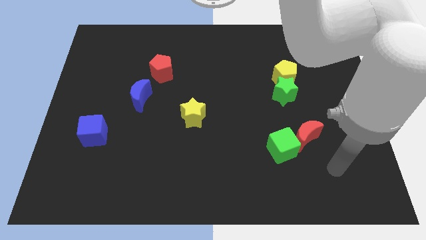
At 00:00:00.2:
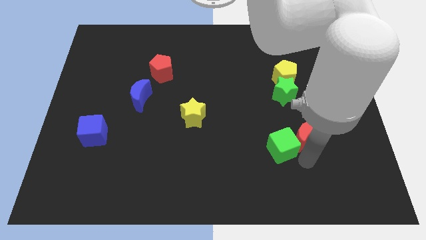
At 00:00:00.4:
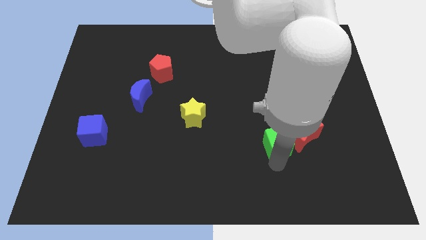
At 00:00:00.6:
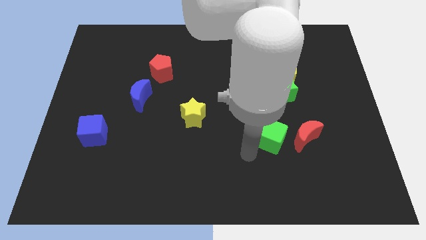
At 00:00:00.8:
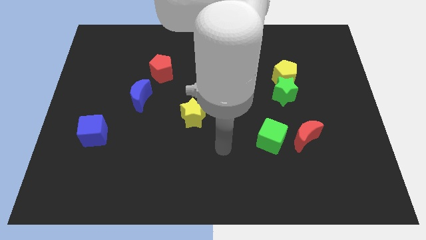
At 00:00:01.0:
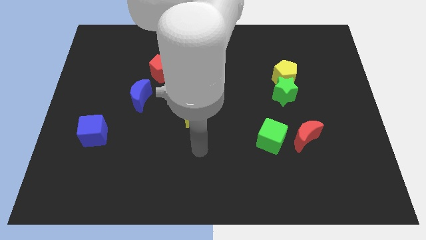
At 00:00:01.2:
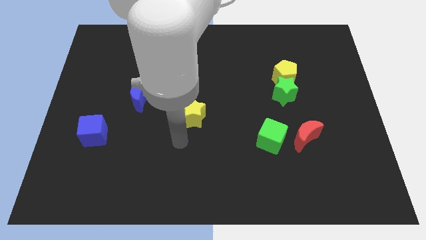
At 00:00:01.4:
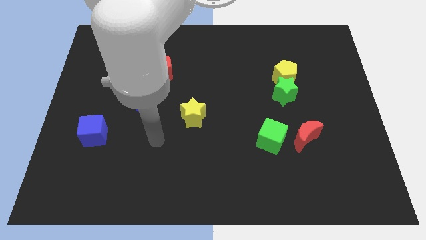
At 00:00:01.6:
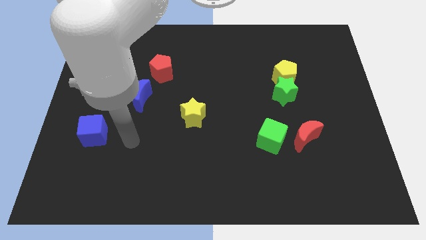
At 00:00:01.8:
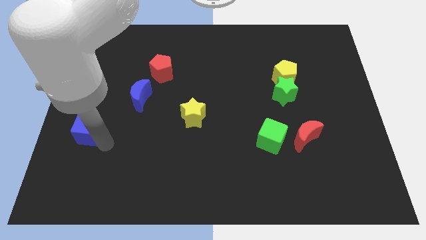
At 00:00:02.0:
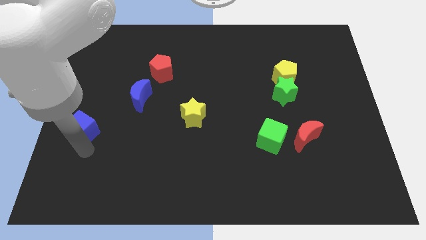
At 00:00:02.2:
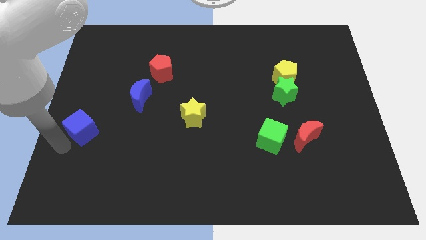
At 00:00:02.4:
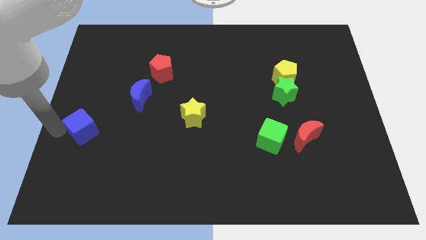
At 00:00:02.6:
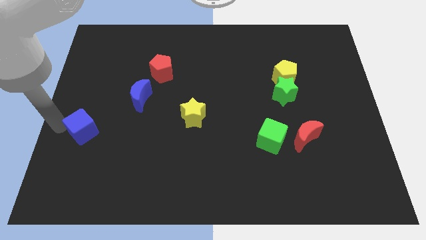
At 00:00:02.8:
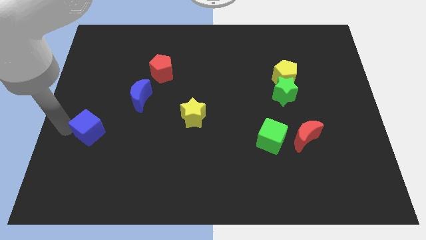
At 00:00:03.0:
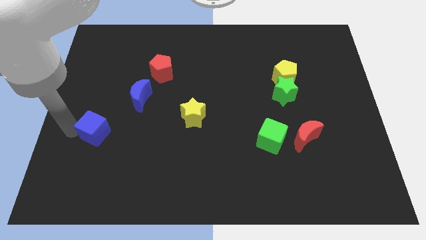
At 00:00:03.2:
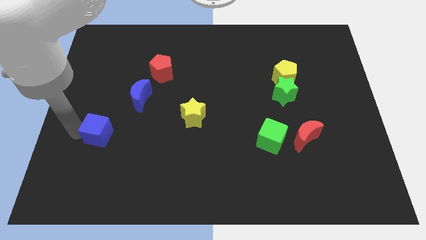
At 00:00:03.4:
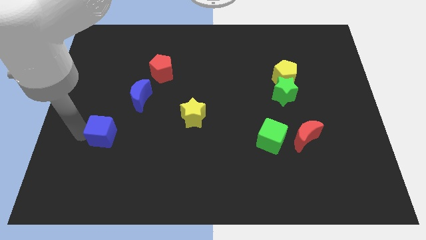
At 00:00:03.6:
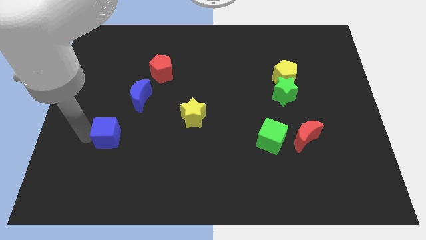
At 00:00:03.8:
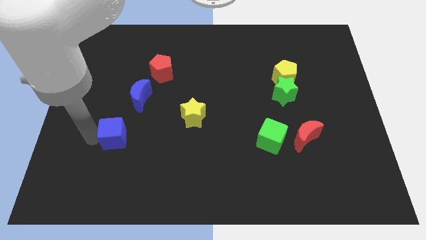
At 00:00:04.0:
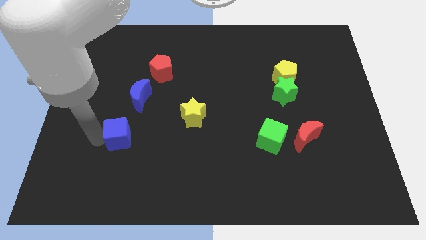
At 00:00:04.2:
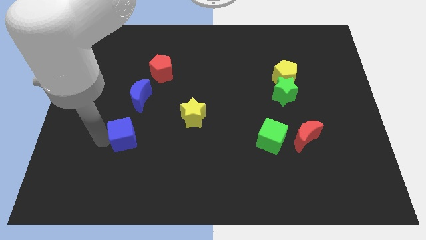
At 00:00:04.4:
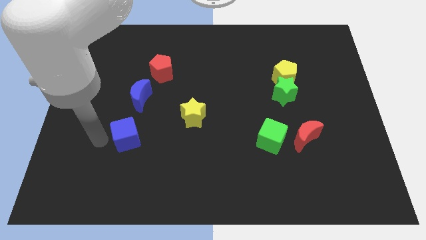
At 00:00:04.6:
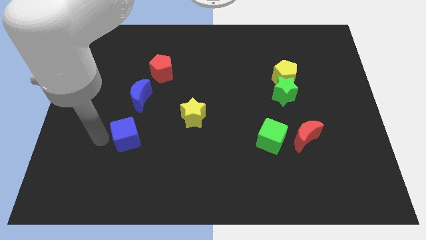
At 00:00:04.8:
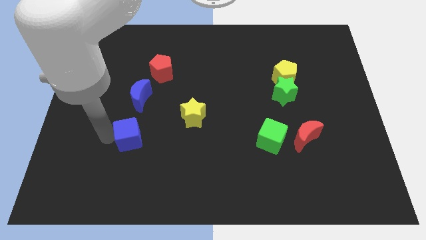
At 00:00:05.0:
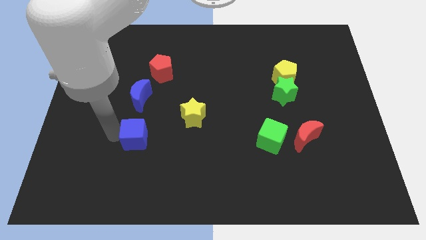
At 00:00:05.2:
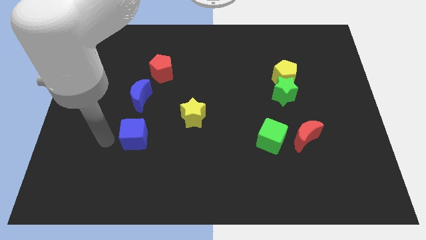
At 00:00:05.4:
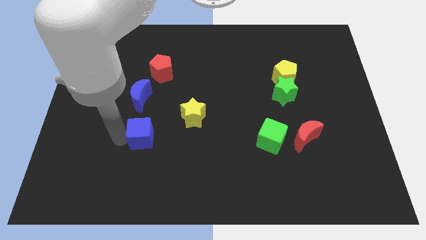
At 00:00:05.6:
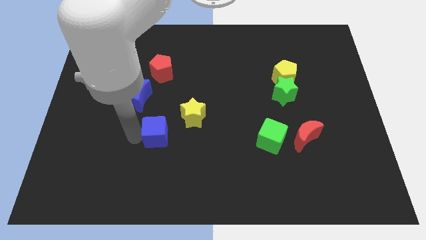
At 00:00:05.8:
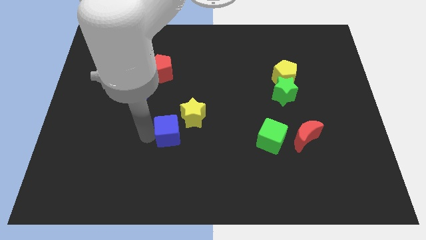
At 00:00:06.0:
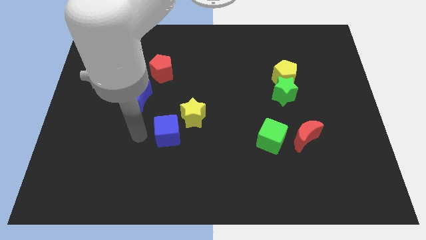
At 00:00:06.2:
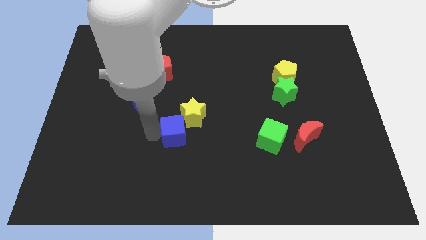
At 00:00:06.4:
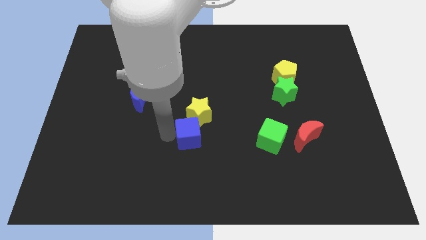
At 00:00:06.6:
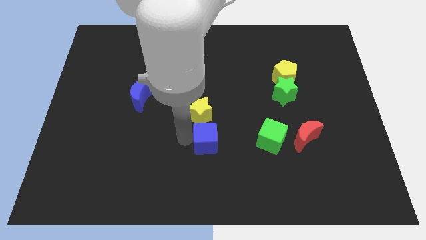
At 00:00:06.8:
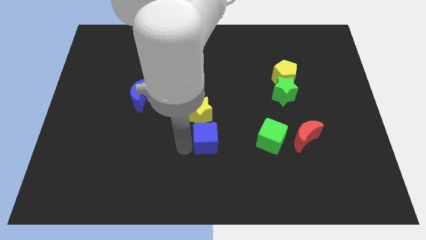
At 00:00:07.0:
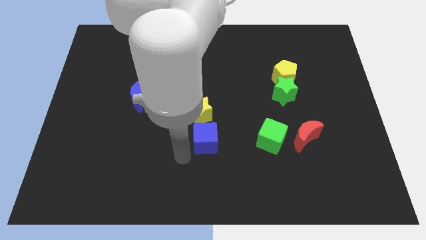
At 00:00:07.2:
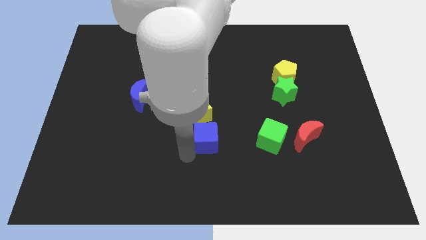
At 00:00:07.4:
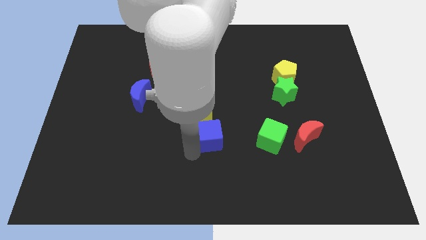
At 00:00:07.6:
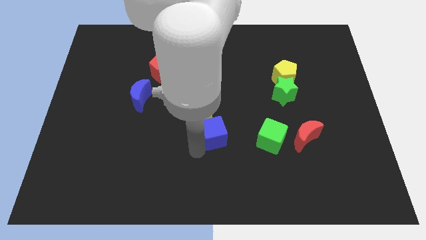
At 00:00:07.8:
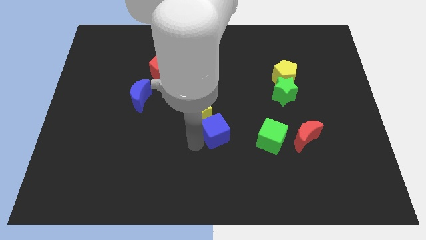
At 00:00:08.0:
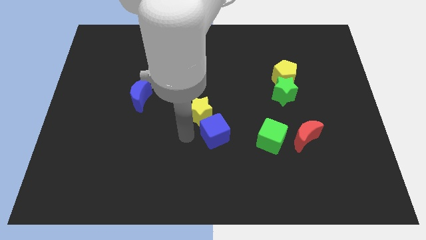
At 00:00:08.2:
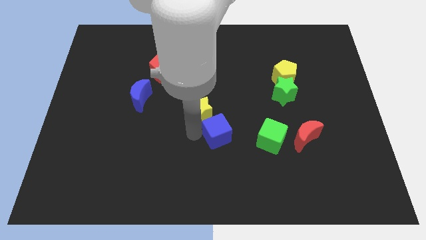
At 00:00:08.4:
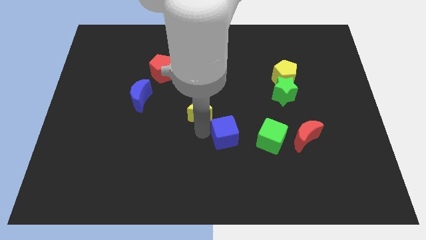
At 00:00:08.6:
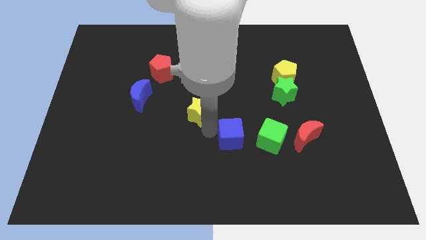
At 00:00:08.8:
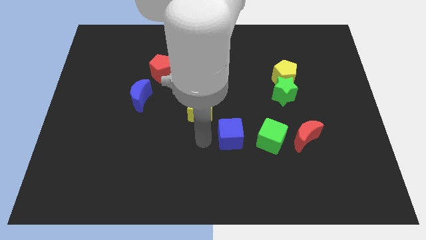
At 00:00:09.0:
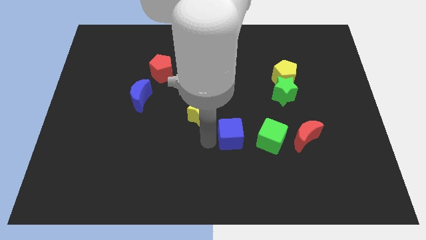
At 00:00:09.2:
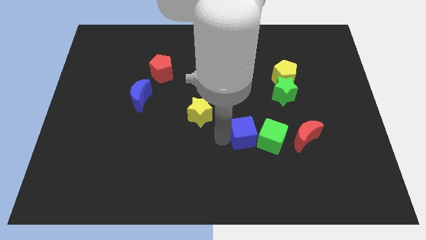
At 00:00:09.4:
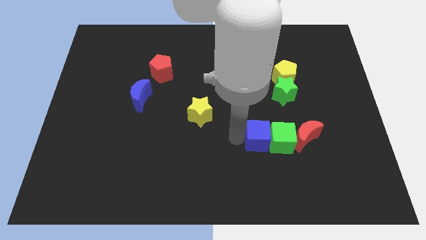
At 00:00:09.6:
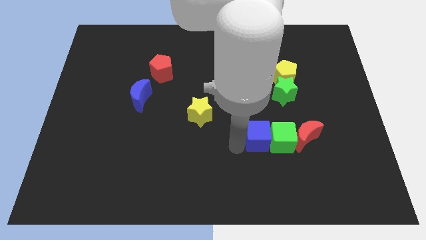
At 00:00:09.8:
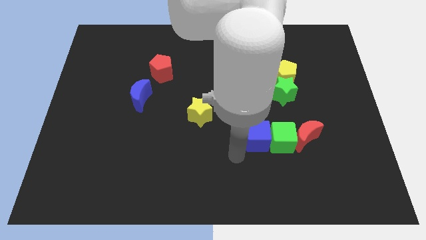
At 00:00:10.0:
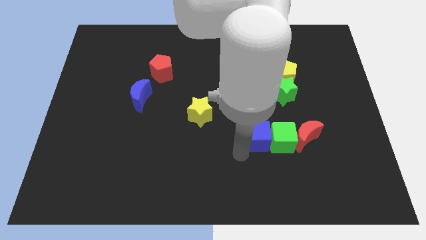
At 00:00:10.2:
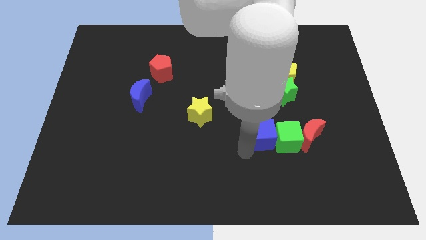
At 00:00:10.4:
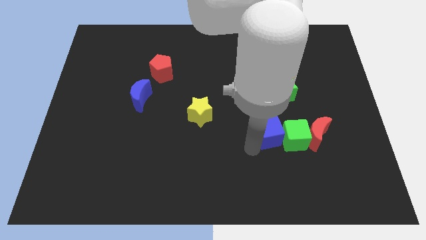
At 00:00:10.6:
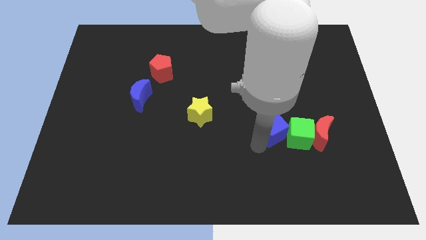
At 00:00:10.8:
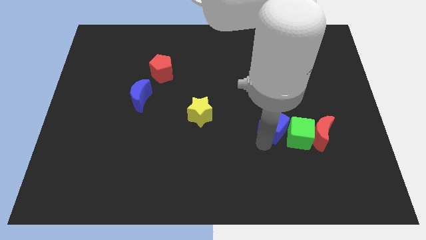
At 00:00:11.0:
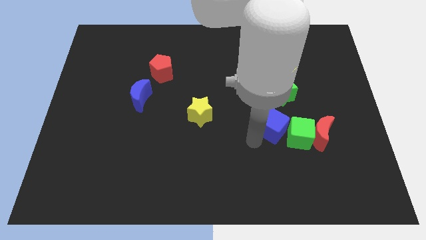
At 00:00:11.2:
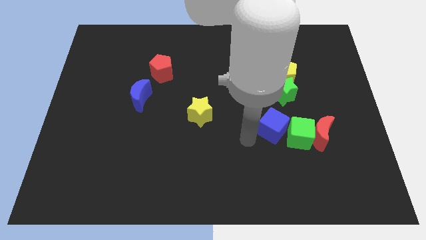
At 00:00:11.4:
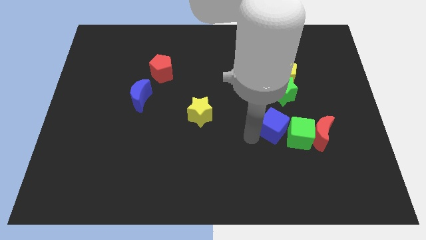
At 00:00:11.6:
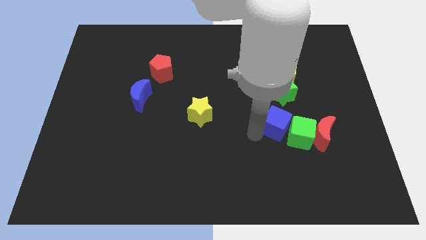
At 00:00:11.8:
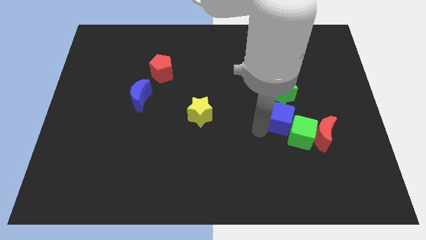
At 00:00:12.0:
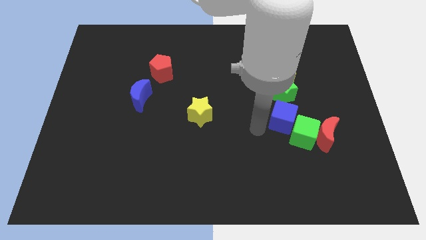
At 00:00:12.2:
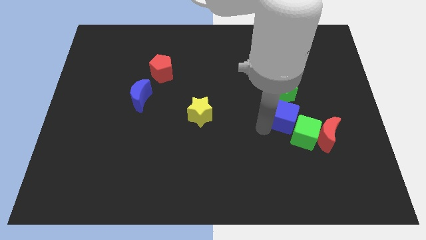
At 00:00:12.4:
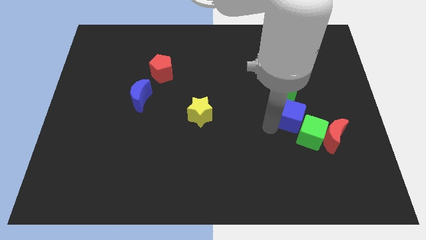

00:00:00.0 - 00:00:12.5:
push the blue cube to the bottom right side of the green star
